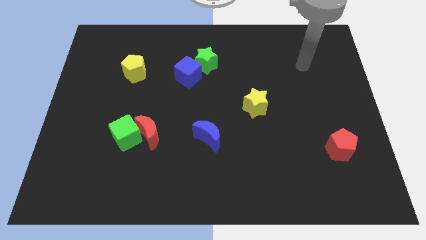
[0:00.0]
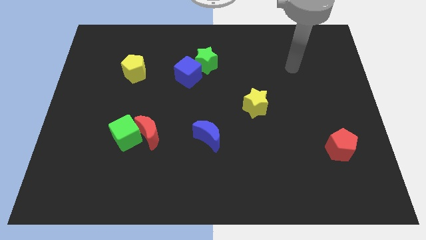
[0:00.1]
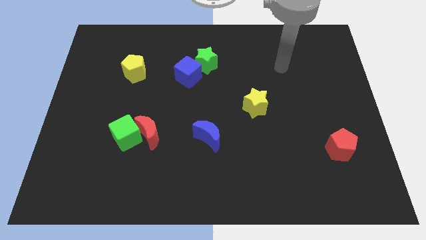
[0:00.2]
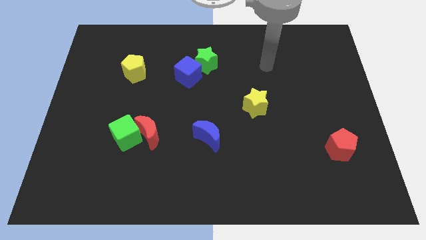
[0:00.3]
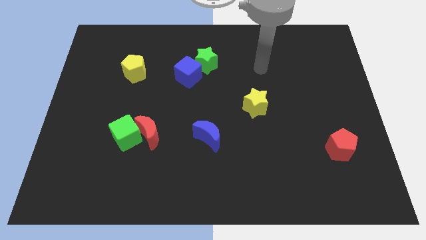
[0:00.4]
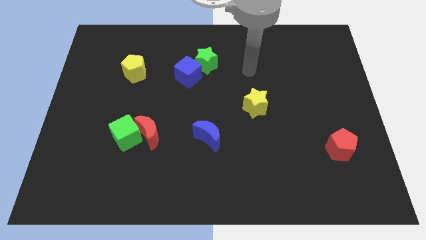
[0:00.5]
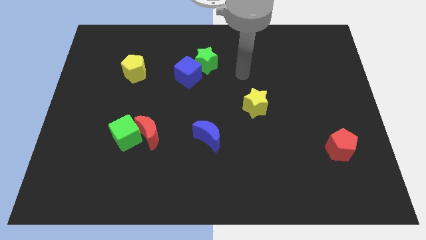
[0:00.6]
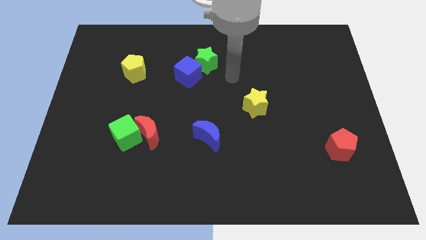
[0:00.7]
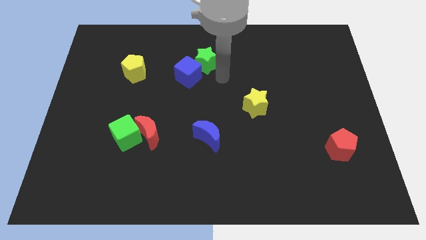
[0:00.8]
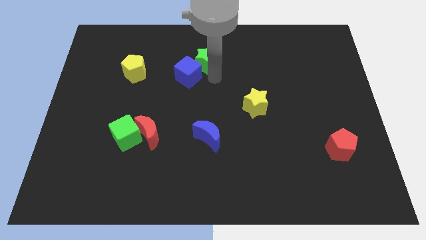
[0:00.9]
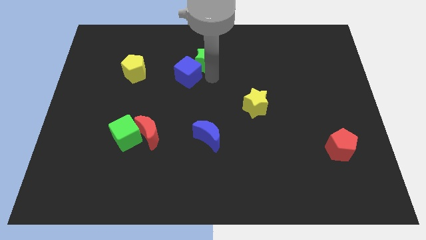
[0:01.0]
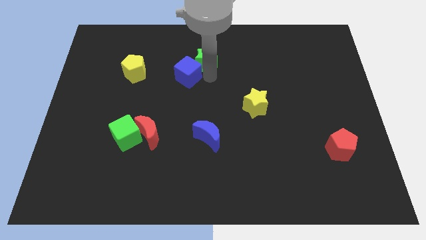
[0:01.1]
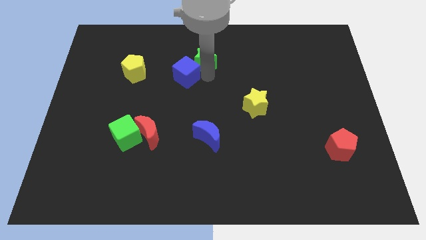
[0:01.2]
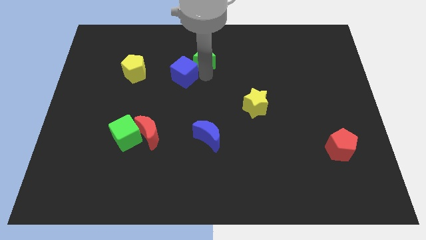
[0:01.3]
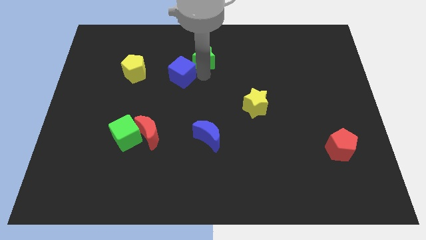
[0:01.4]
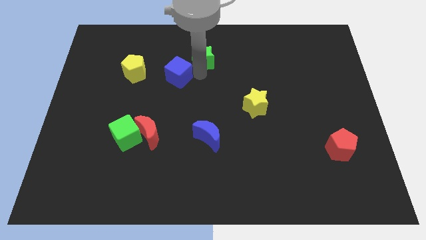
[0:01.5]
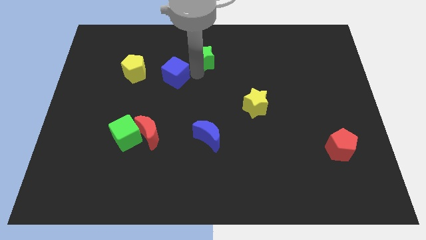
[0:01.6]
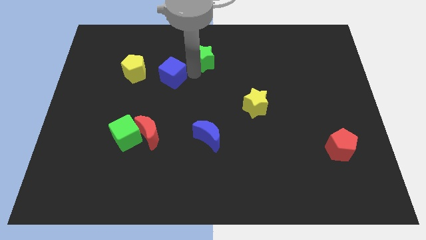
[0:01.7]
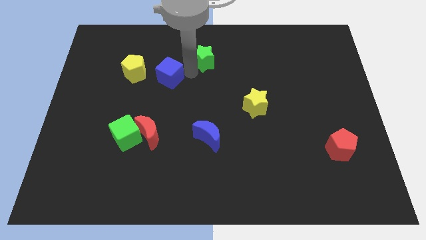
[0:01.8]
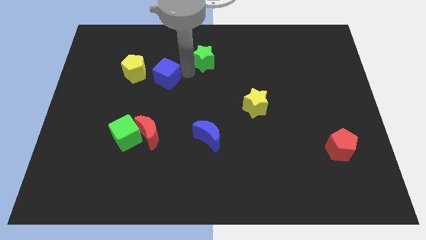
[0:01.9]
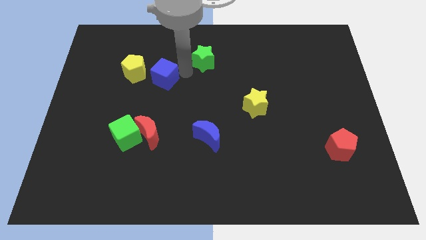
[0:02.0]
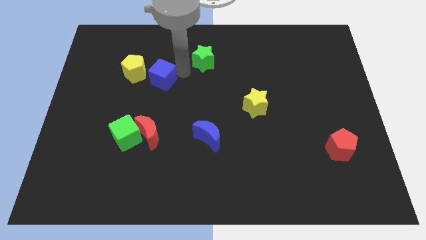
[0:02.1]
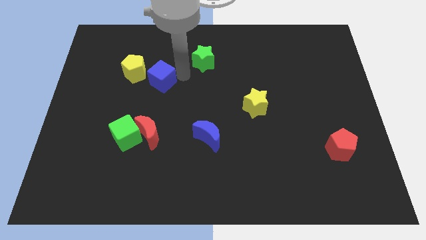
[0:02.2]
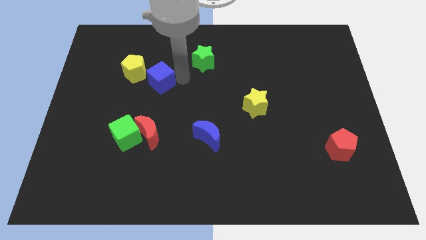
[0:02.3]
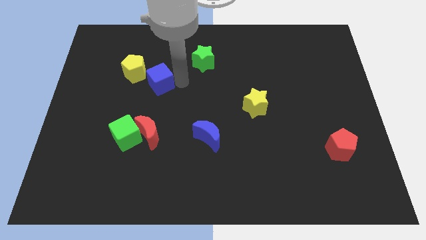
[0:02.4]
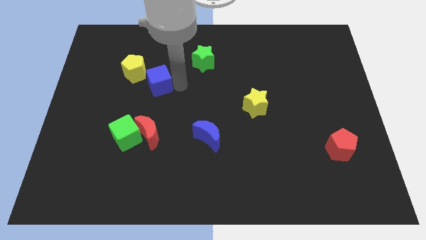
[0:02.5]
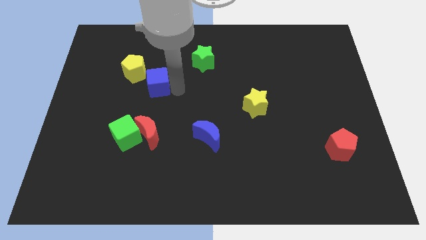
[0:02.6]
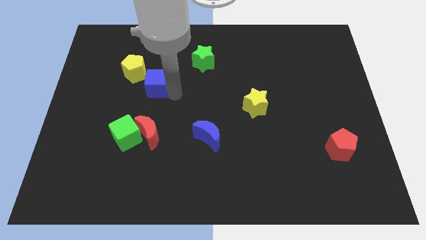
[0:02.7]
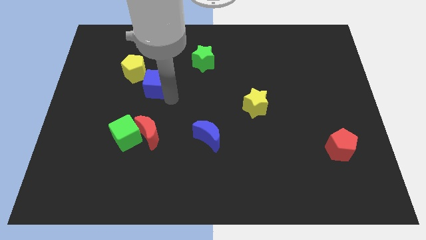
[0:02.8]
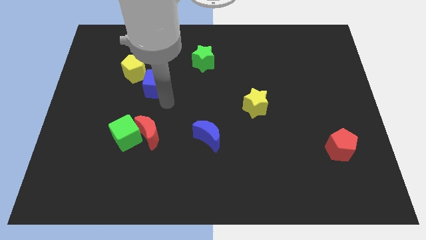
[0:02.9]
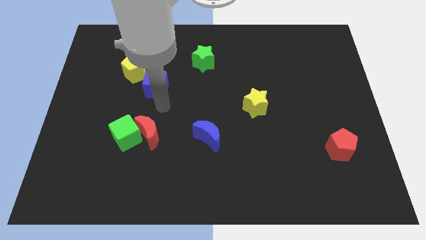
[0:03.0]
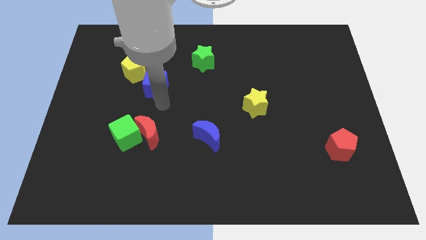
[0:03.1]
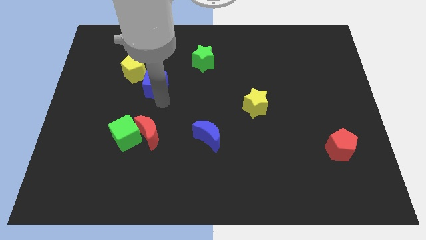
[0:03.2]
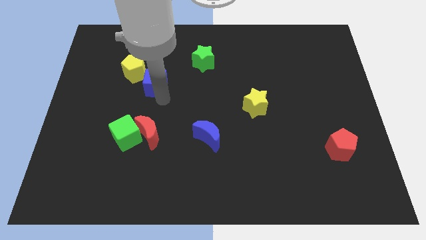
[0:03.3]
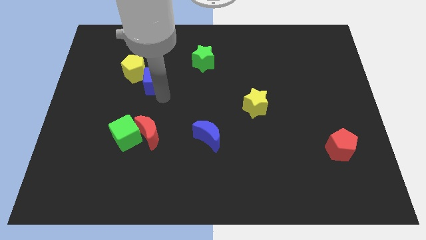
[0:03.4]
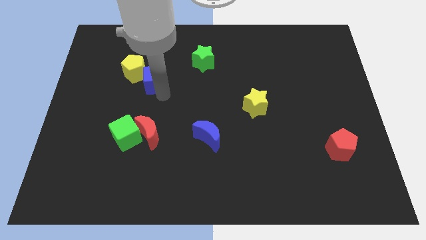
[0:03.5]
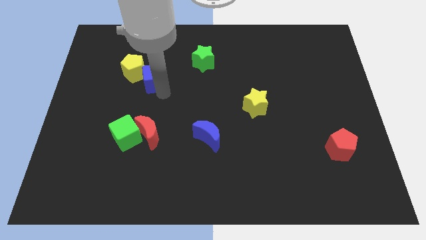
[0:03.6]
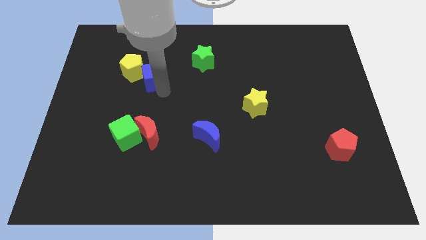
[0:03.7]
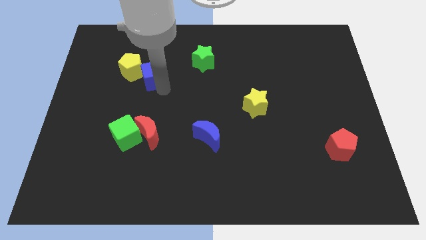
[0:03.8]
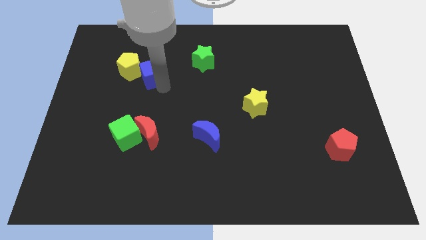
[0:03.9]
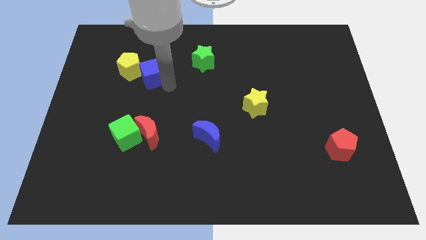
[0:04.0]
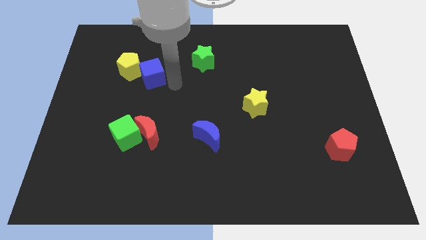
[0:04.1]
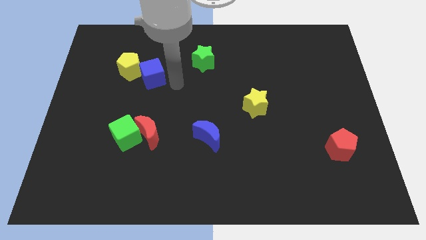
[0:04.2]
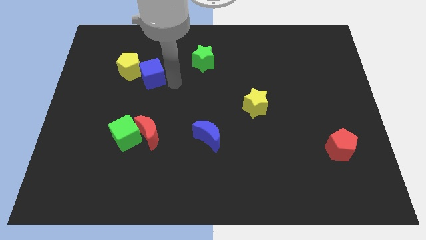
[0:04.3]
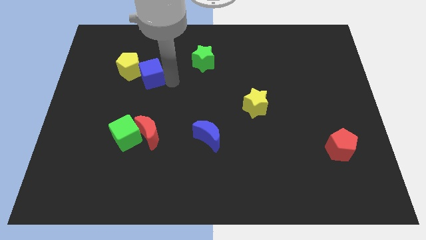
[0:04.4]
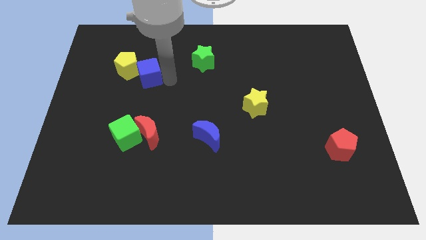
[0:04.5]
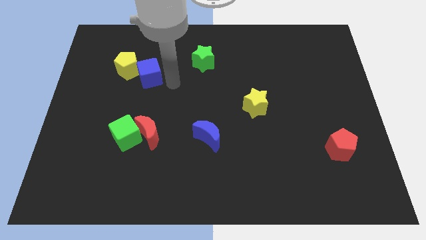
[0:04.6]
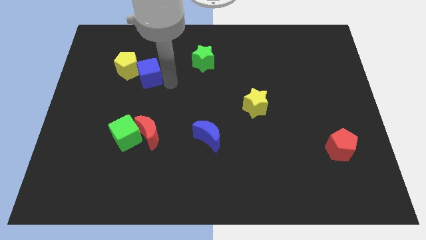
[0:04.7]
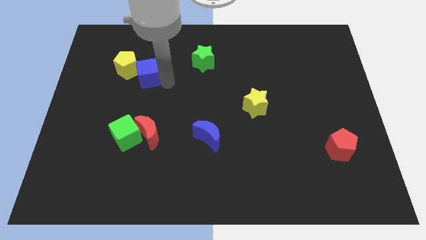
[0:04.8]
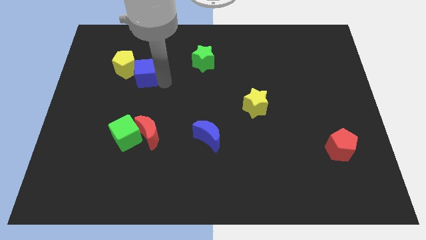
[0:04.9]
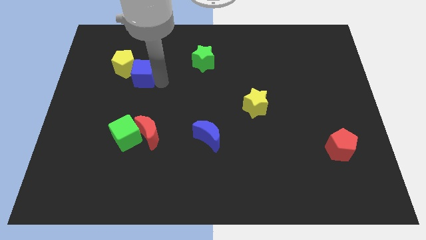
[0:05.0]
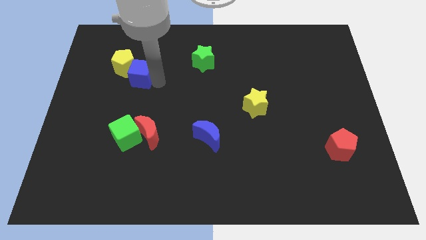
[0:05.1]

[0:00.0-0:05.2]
push the blue cube close to the yellow pentagon

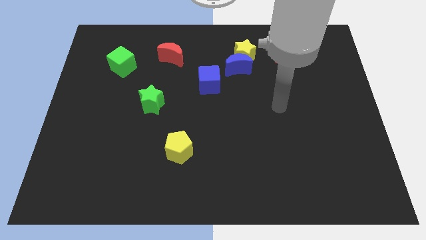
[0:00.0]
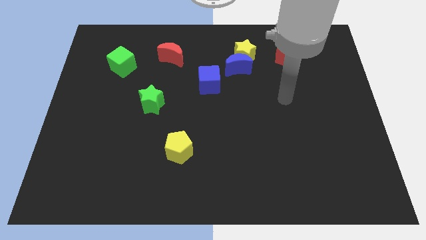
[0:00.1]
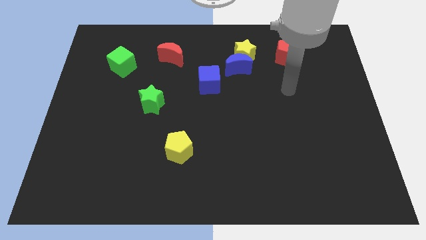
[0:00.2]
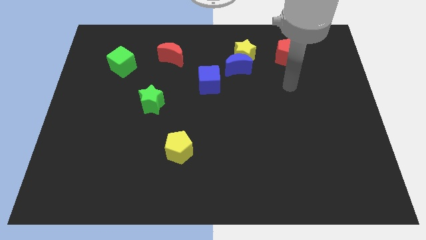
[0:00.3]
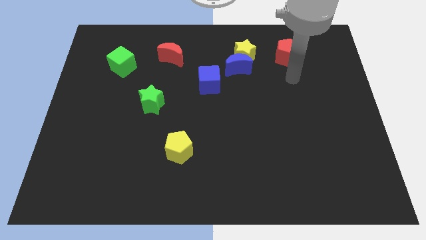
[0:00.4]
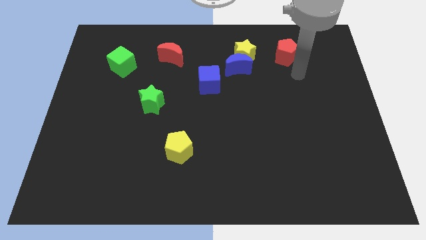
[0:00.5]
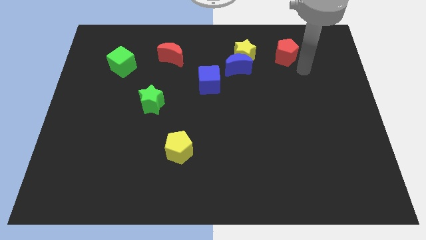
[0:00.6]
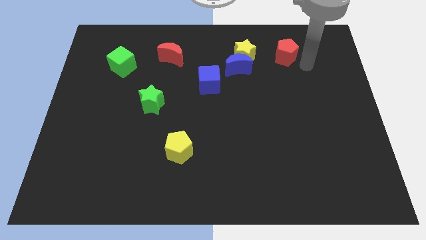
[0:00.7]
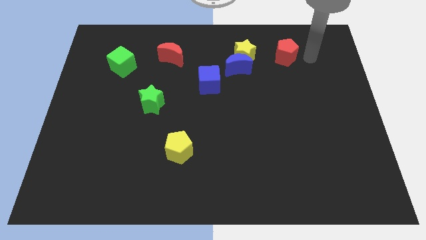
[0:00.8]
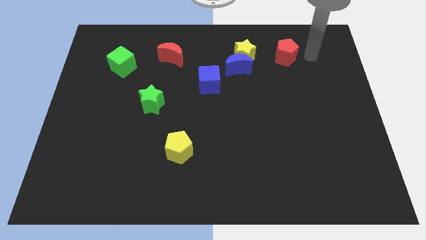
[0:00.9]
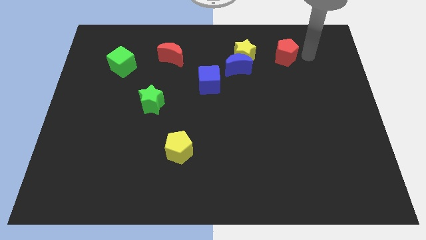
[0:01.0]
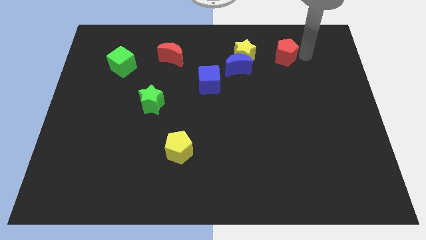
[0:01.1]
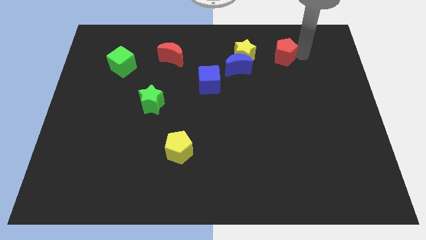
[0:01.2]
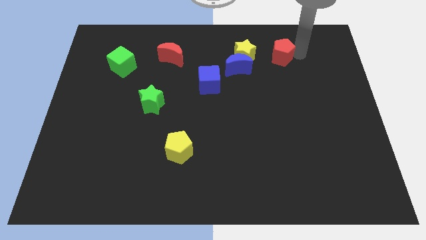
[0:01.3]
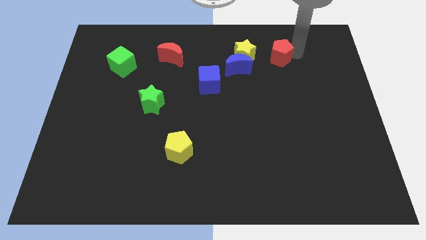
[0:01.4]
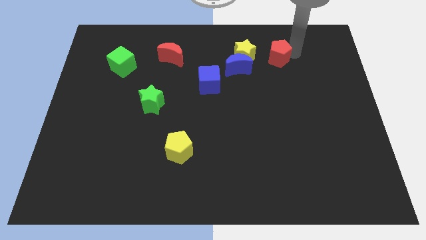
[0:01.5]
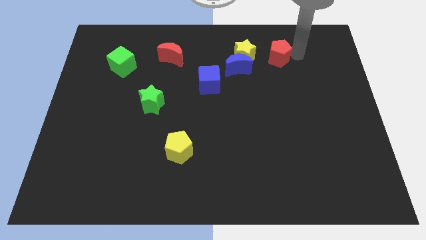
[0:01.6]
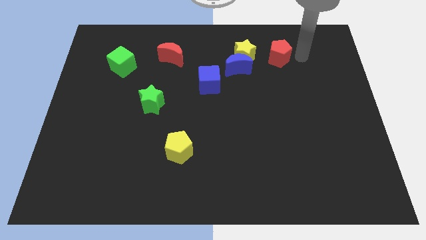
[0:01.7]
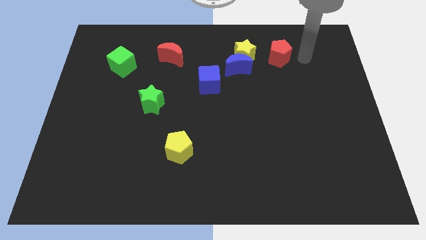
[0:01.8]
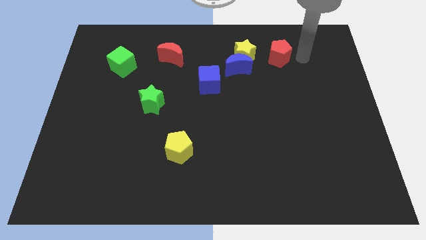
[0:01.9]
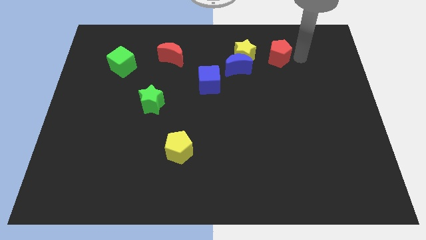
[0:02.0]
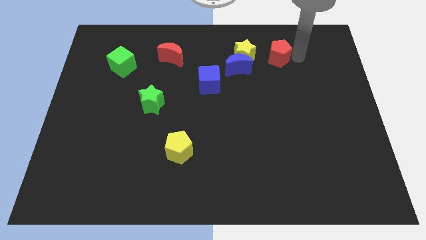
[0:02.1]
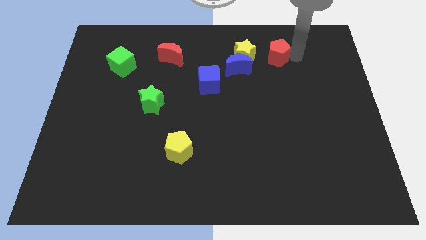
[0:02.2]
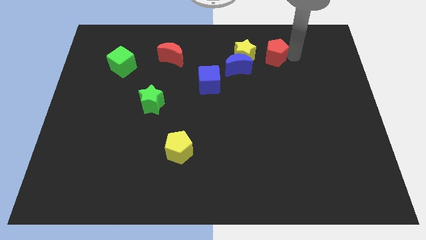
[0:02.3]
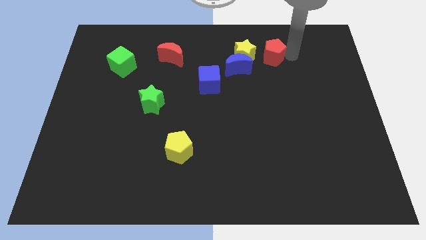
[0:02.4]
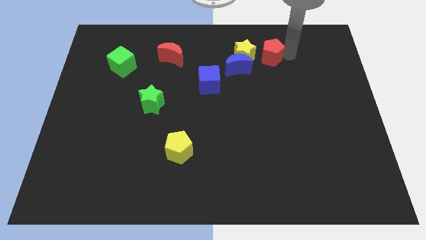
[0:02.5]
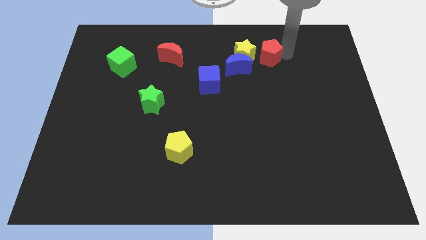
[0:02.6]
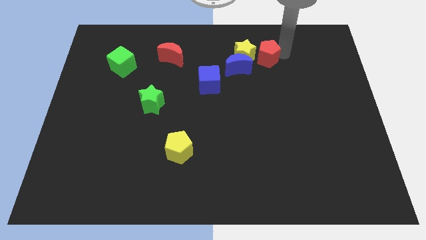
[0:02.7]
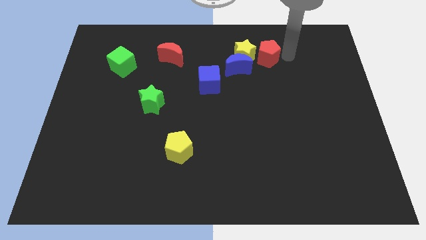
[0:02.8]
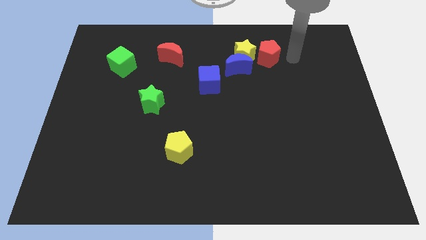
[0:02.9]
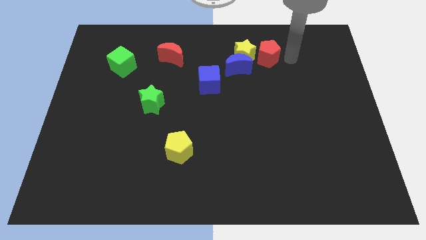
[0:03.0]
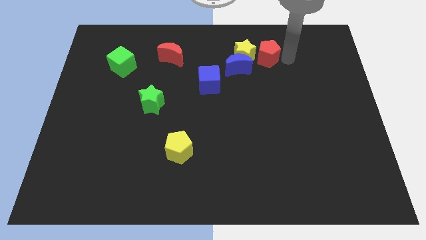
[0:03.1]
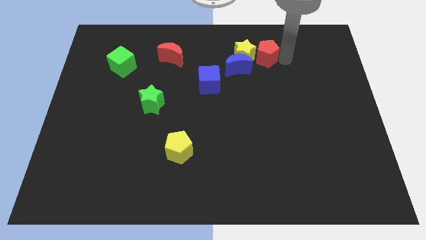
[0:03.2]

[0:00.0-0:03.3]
push the red pentagon towards the yellow star
